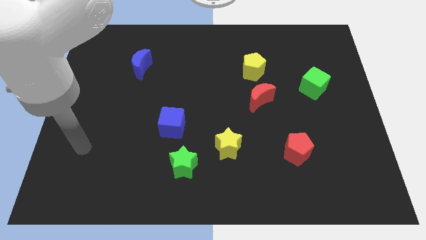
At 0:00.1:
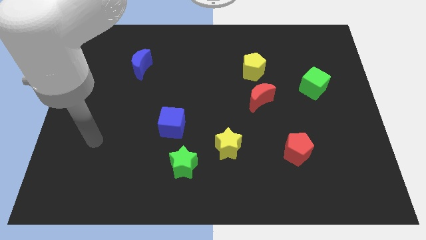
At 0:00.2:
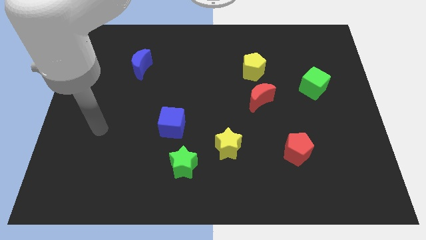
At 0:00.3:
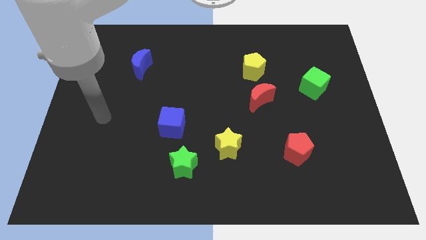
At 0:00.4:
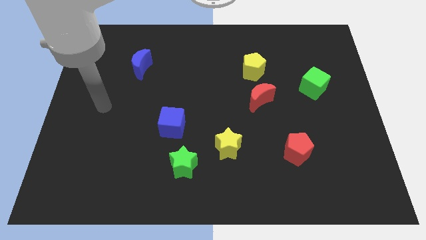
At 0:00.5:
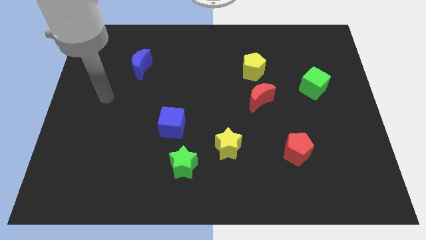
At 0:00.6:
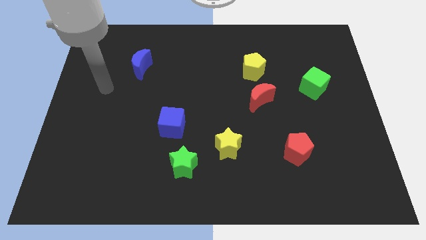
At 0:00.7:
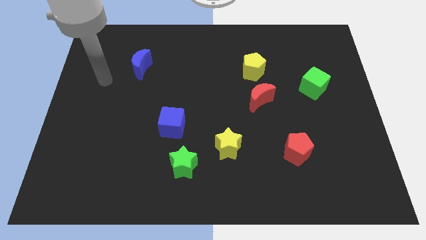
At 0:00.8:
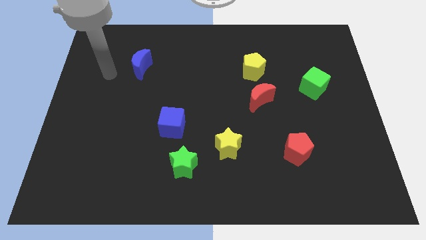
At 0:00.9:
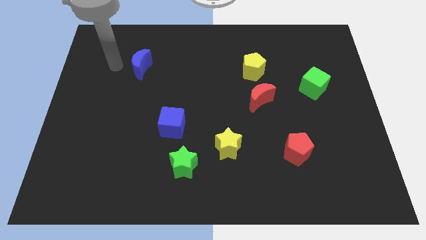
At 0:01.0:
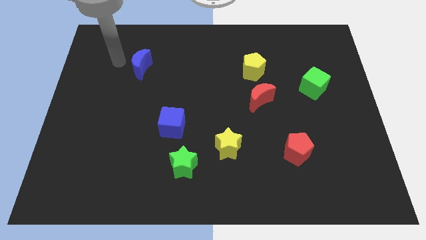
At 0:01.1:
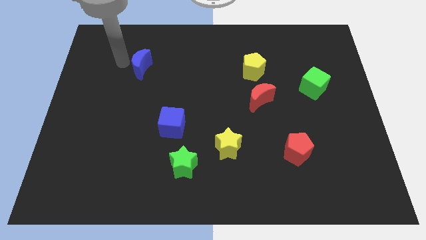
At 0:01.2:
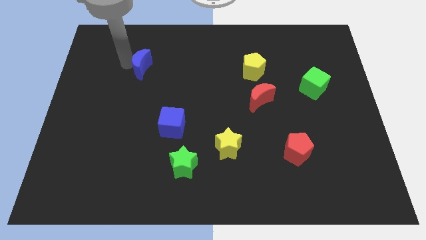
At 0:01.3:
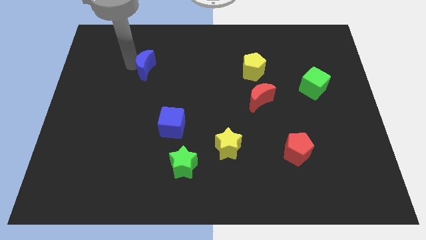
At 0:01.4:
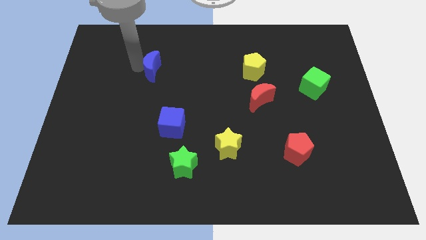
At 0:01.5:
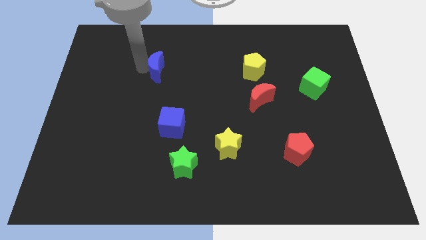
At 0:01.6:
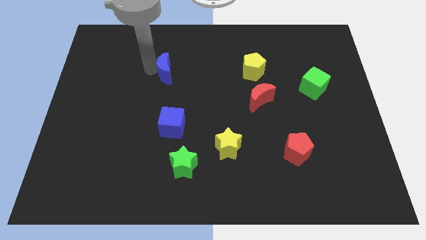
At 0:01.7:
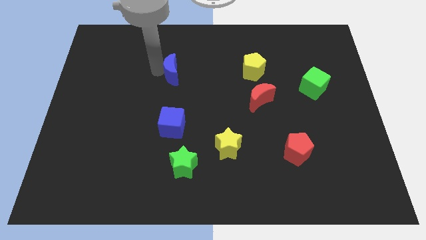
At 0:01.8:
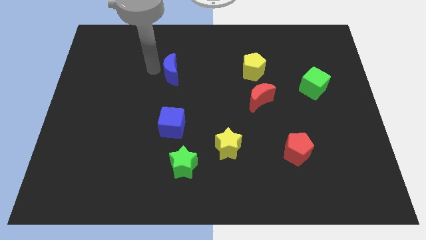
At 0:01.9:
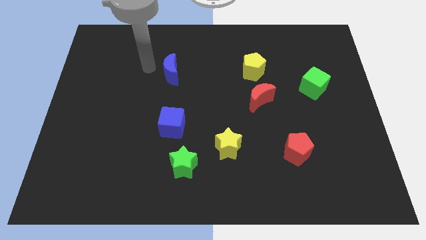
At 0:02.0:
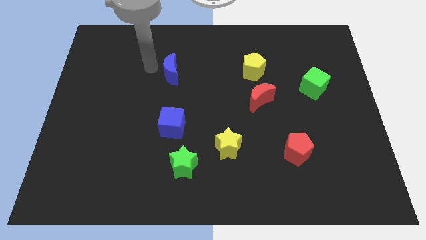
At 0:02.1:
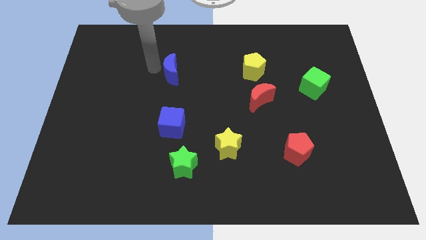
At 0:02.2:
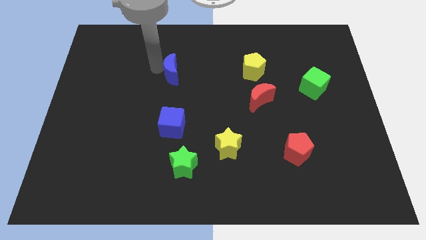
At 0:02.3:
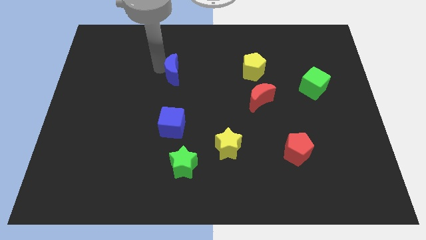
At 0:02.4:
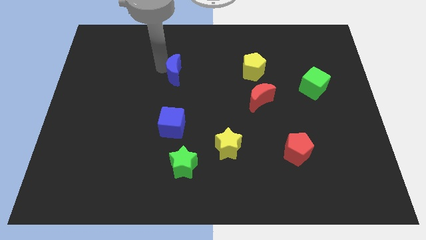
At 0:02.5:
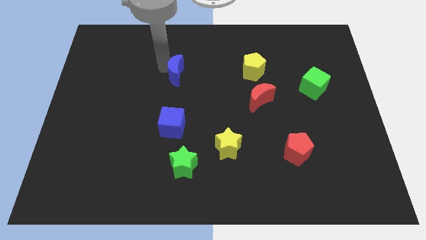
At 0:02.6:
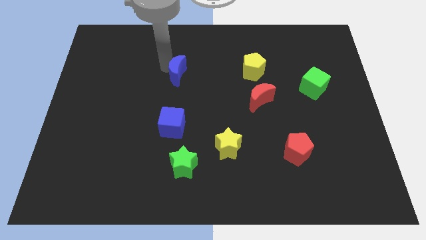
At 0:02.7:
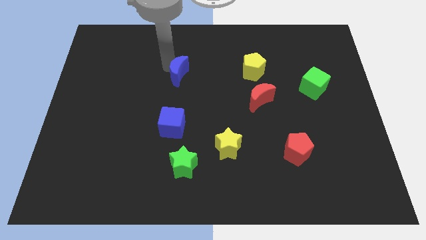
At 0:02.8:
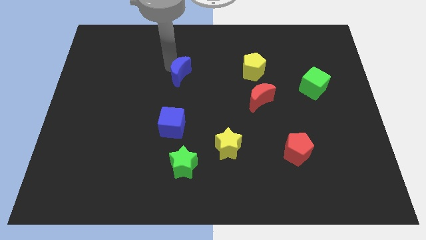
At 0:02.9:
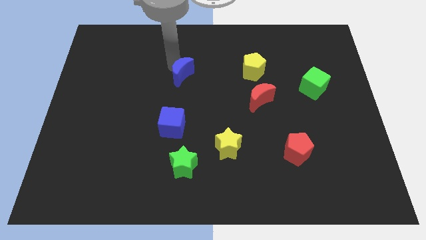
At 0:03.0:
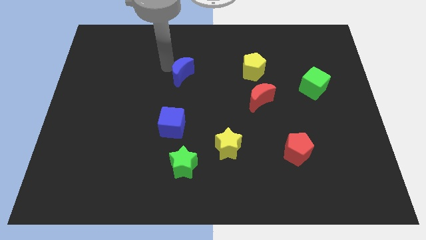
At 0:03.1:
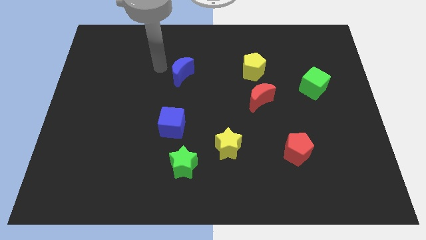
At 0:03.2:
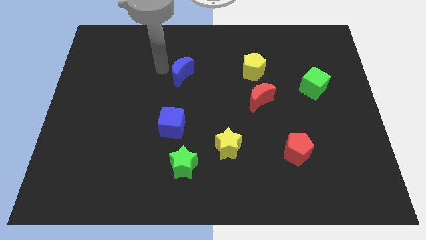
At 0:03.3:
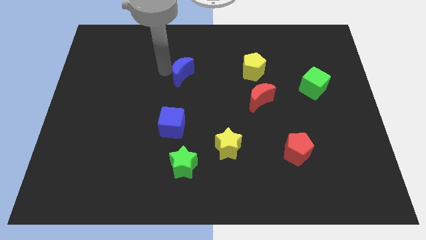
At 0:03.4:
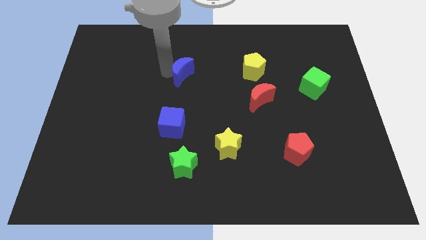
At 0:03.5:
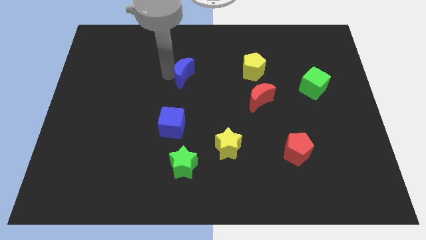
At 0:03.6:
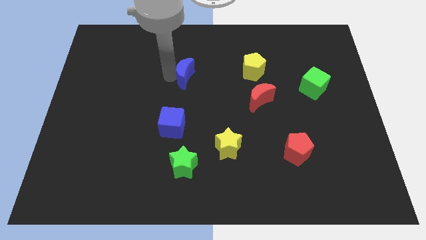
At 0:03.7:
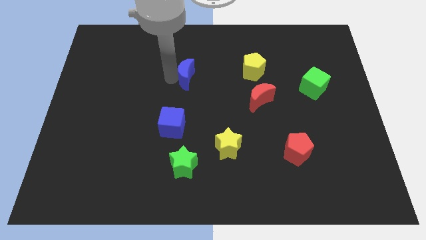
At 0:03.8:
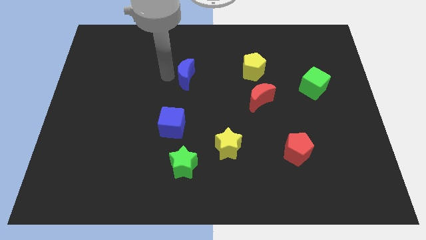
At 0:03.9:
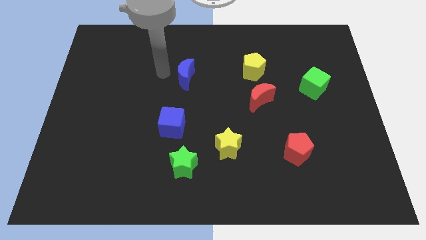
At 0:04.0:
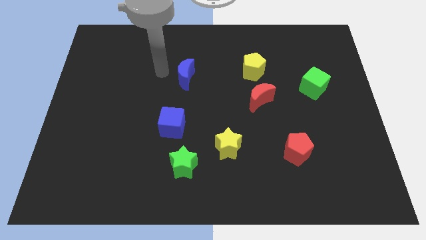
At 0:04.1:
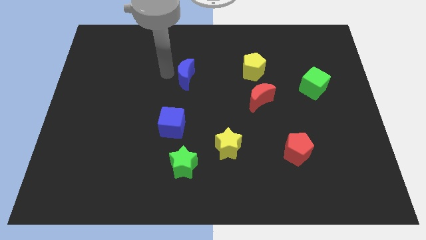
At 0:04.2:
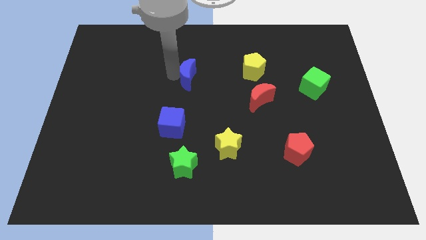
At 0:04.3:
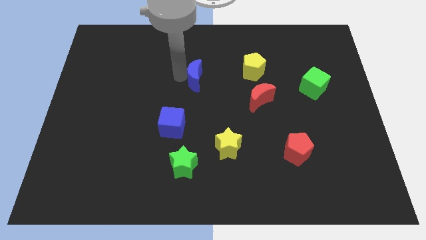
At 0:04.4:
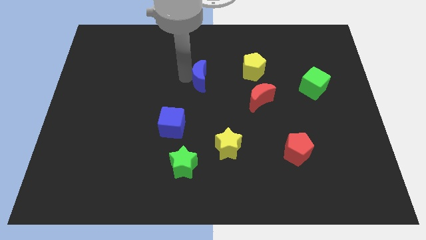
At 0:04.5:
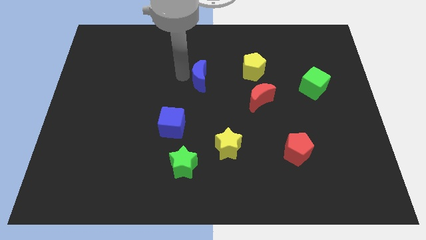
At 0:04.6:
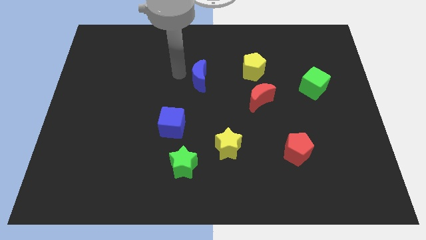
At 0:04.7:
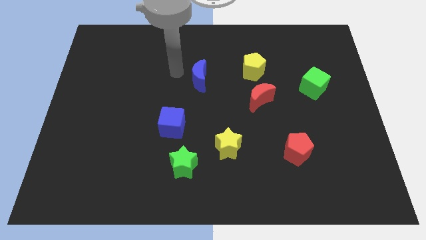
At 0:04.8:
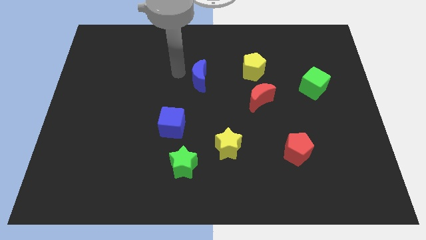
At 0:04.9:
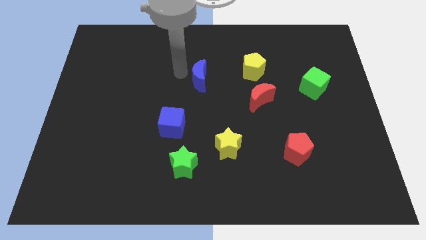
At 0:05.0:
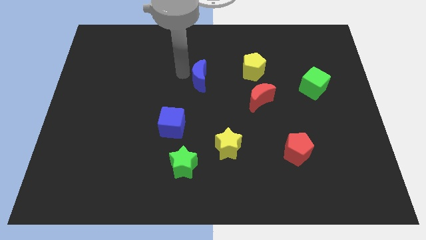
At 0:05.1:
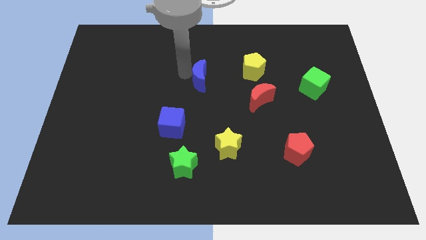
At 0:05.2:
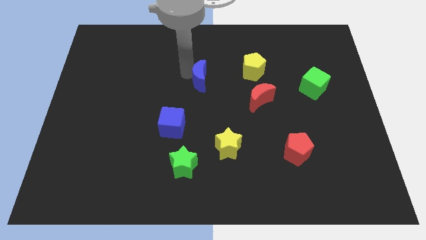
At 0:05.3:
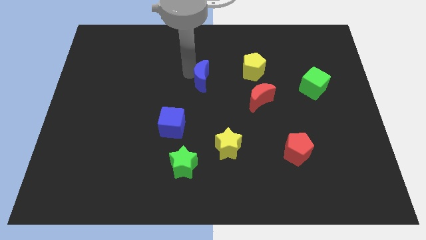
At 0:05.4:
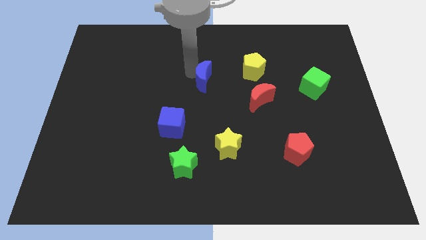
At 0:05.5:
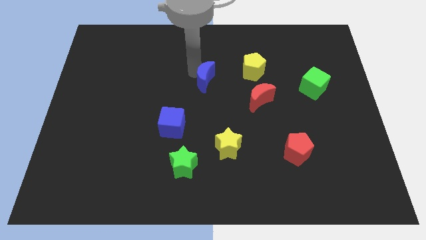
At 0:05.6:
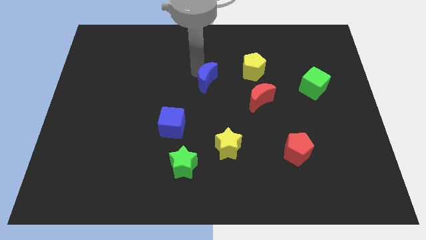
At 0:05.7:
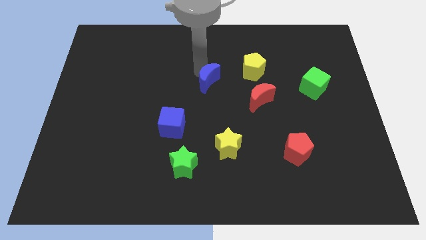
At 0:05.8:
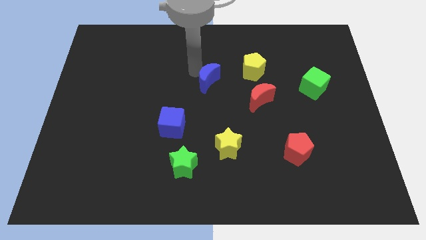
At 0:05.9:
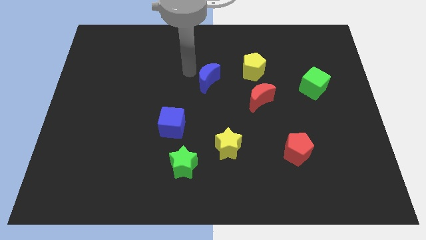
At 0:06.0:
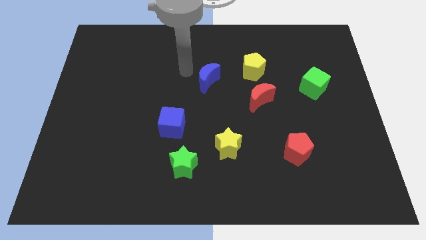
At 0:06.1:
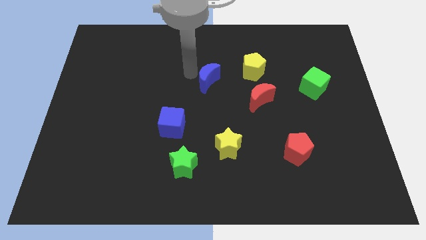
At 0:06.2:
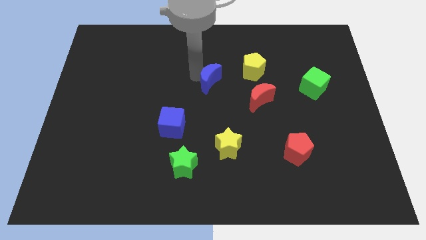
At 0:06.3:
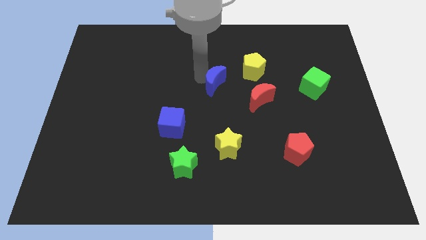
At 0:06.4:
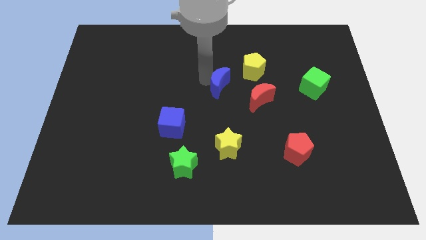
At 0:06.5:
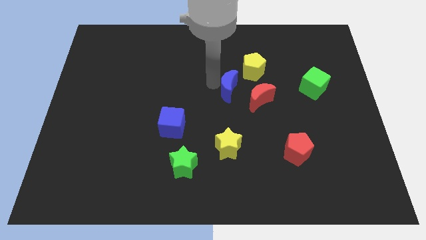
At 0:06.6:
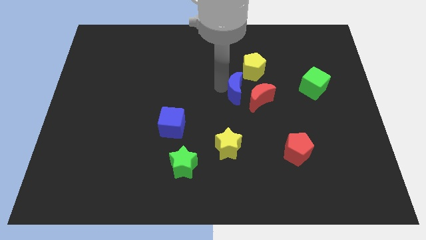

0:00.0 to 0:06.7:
move the blue moon towards the red moon

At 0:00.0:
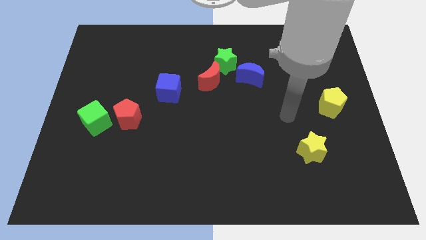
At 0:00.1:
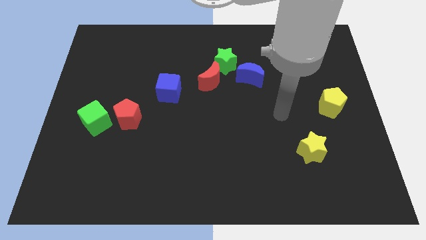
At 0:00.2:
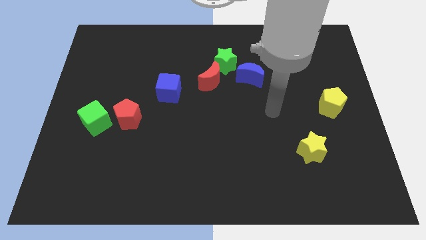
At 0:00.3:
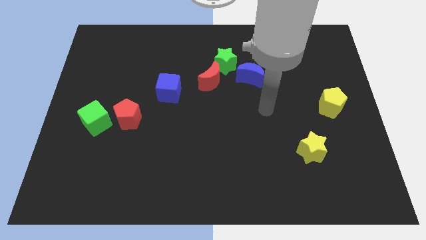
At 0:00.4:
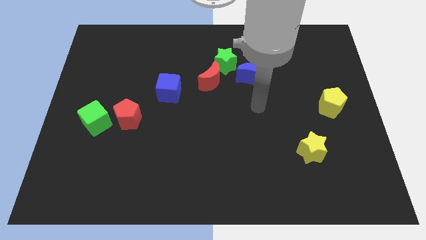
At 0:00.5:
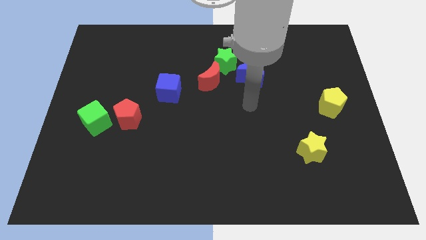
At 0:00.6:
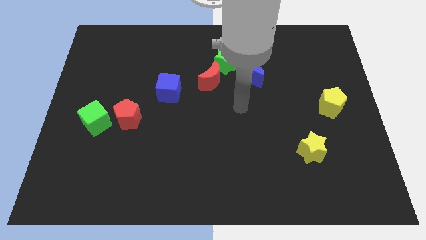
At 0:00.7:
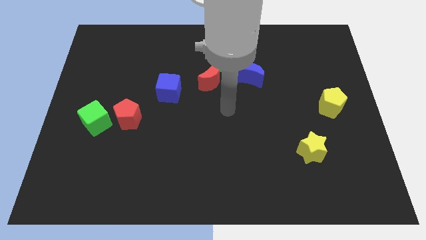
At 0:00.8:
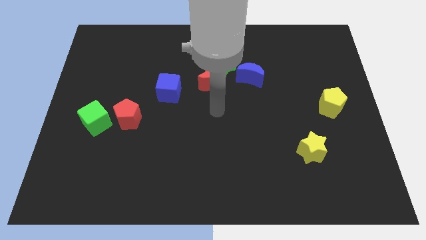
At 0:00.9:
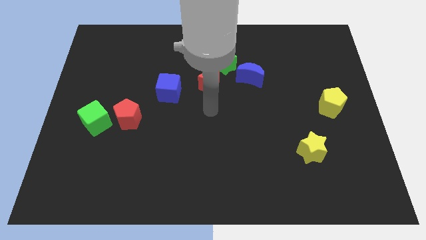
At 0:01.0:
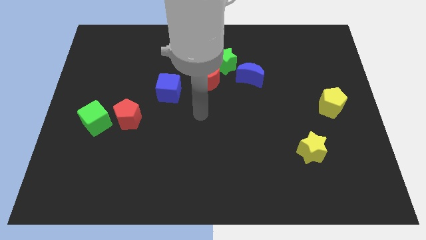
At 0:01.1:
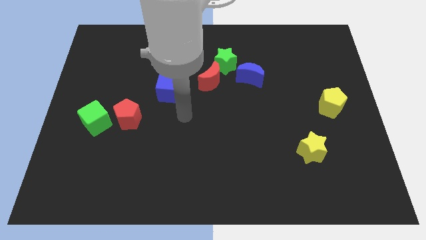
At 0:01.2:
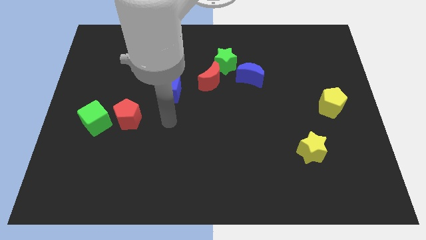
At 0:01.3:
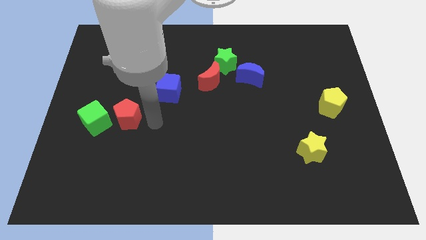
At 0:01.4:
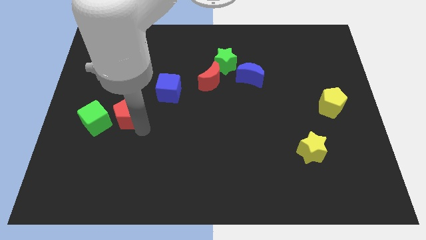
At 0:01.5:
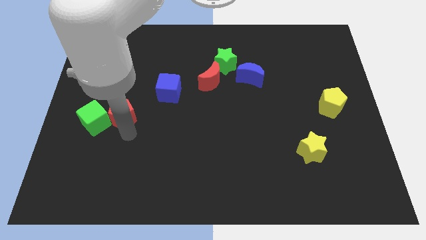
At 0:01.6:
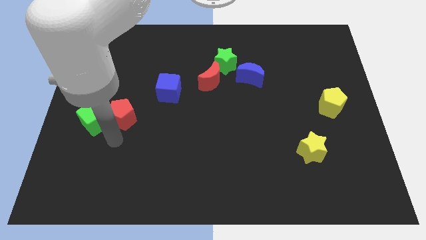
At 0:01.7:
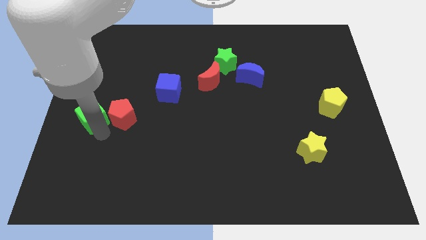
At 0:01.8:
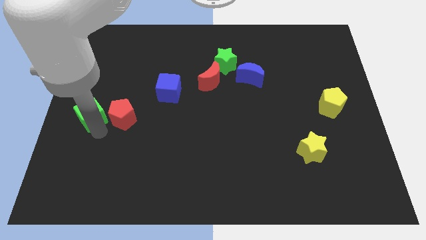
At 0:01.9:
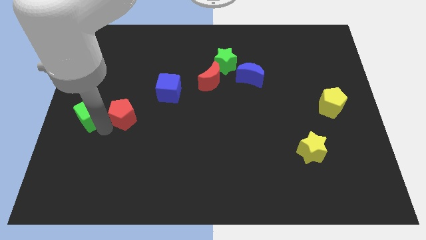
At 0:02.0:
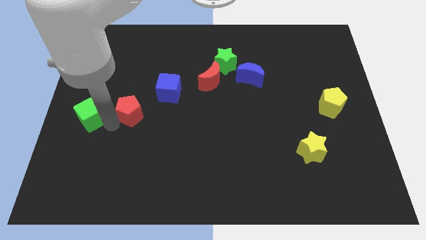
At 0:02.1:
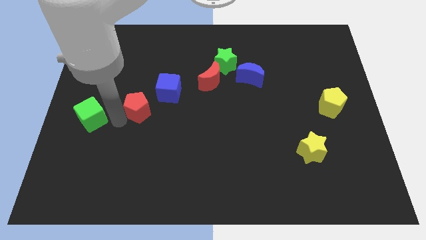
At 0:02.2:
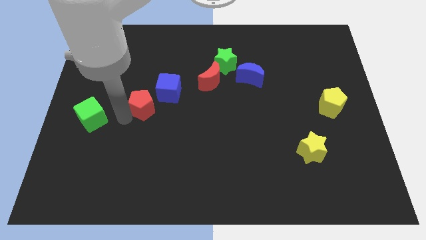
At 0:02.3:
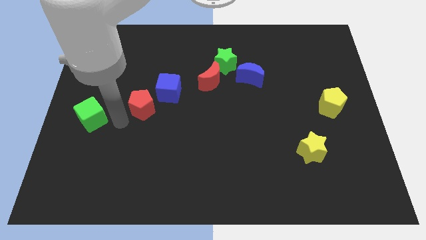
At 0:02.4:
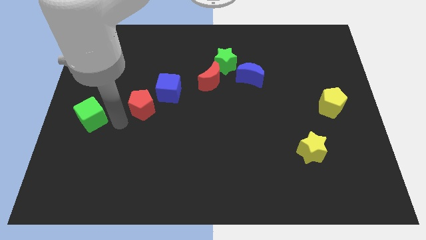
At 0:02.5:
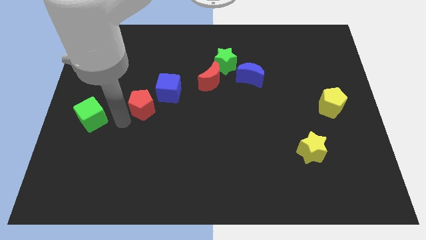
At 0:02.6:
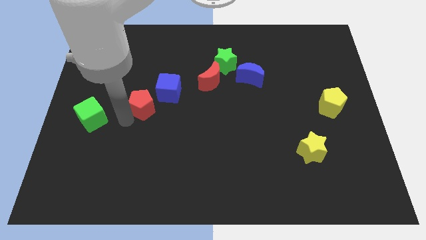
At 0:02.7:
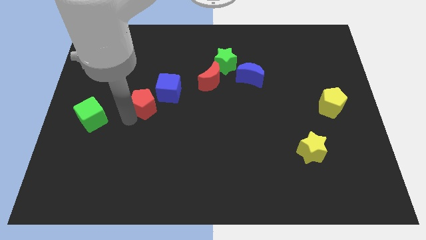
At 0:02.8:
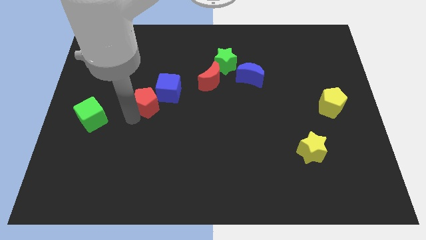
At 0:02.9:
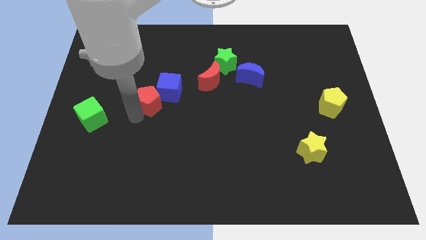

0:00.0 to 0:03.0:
slide the red pentagon next to the blue cube
